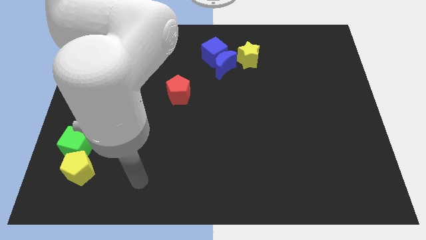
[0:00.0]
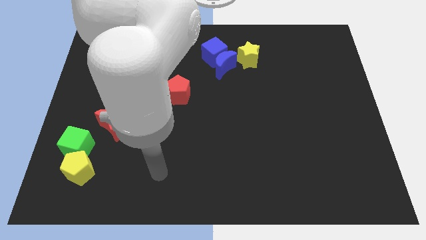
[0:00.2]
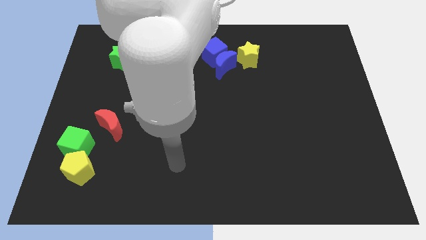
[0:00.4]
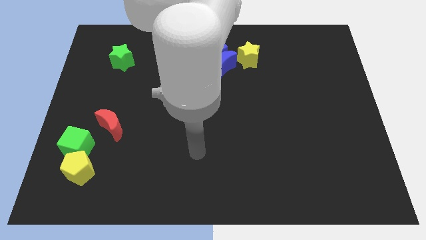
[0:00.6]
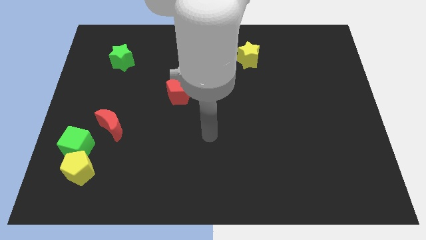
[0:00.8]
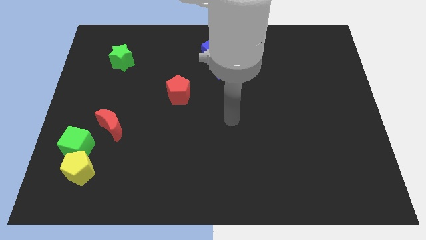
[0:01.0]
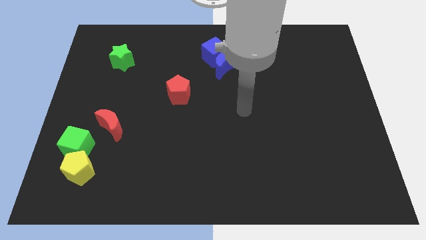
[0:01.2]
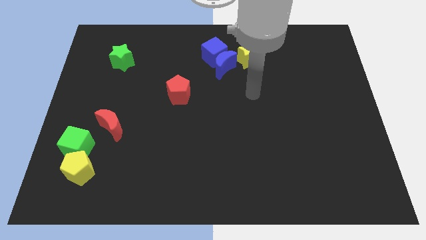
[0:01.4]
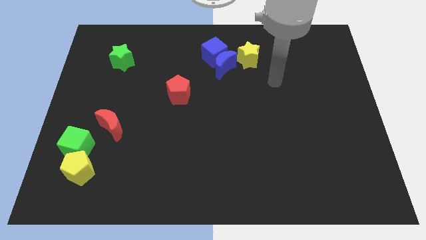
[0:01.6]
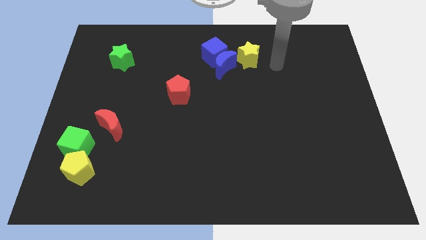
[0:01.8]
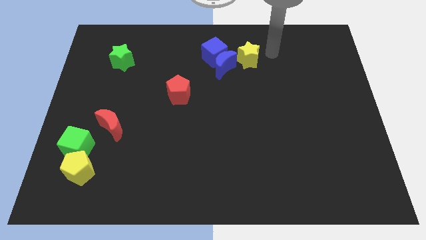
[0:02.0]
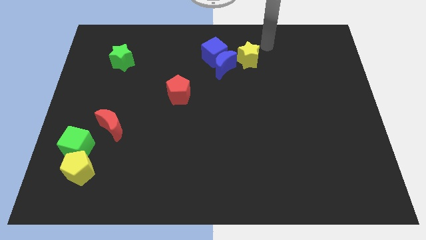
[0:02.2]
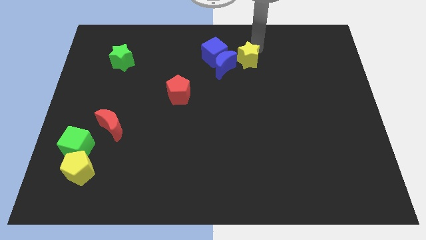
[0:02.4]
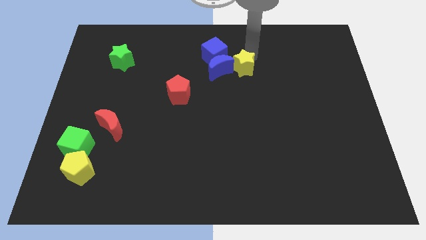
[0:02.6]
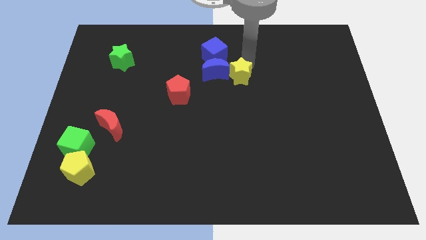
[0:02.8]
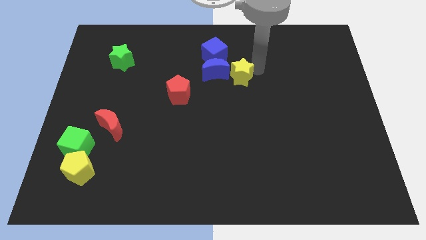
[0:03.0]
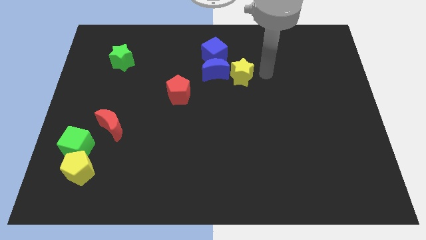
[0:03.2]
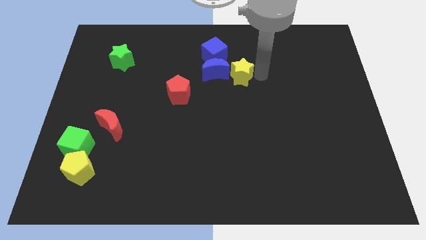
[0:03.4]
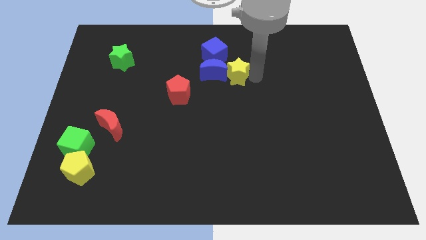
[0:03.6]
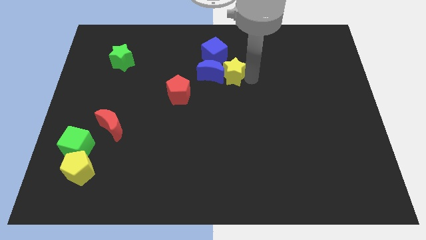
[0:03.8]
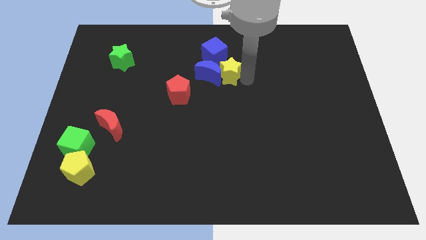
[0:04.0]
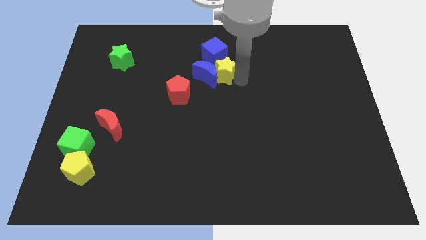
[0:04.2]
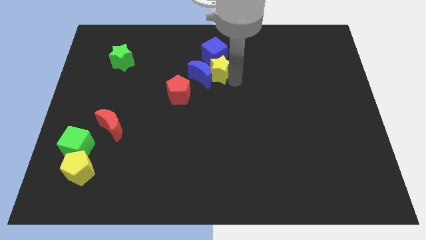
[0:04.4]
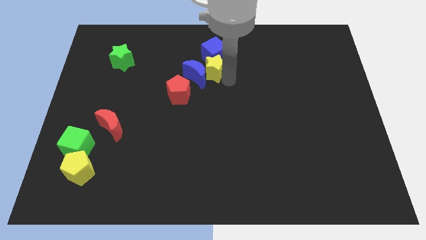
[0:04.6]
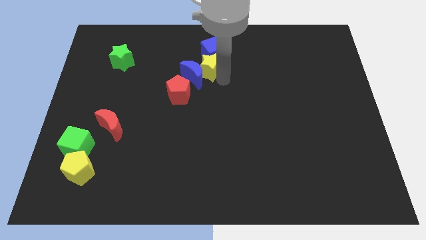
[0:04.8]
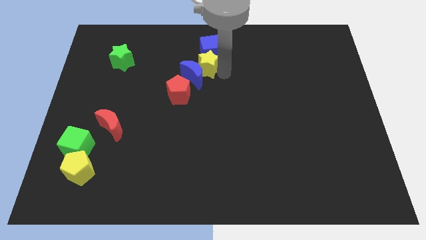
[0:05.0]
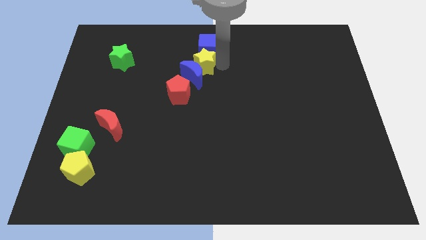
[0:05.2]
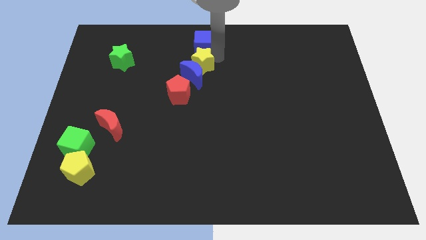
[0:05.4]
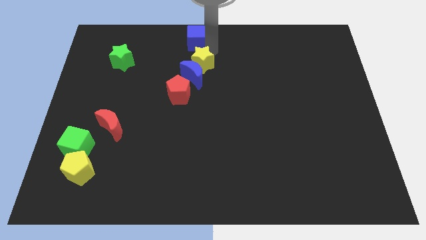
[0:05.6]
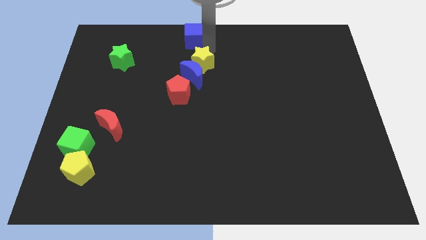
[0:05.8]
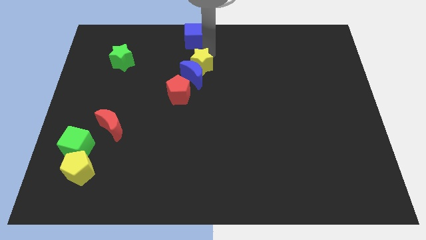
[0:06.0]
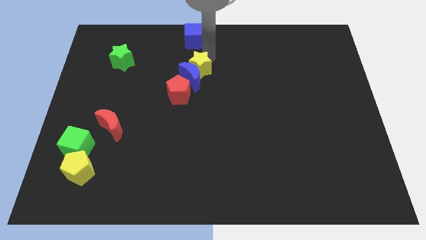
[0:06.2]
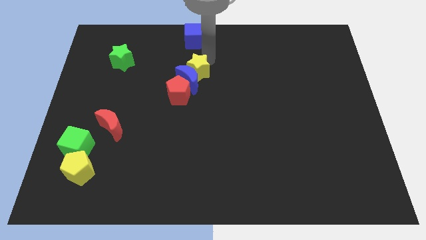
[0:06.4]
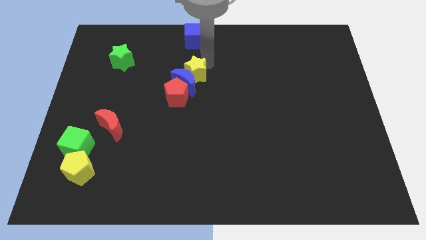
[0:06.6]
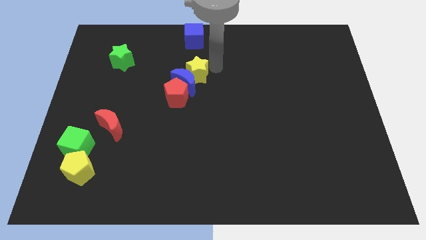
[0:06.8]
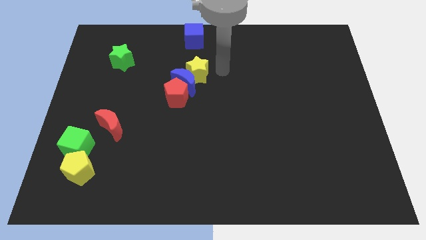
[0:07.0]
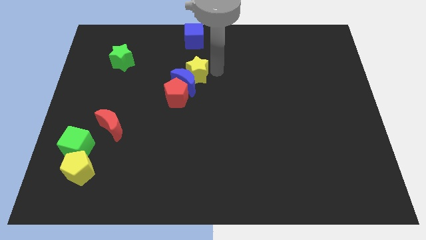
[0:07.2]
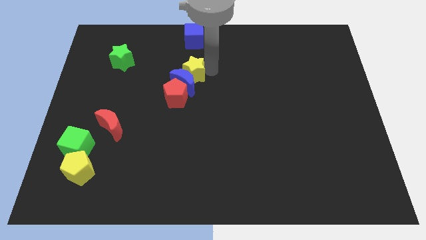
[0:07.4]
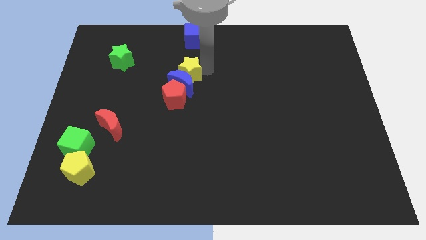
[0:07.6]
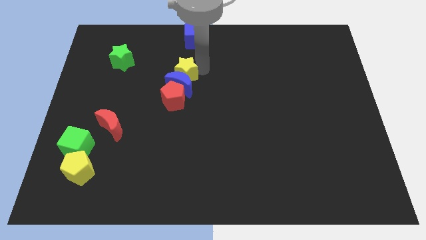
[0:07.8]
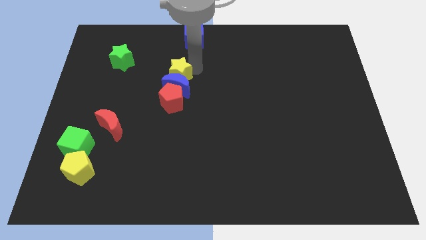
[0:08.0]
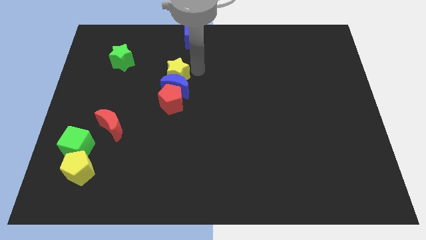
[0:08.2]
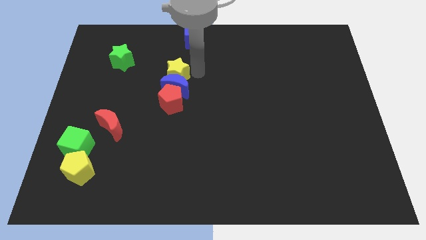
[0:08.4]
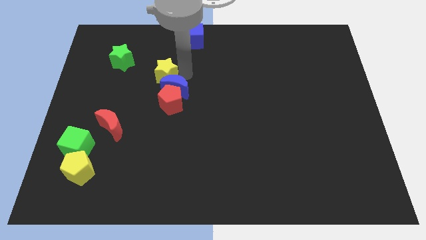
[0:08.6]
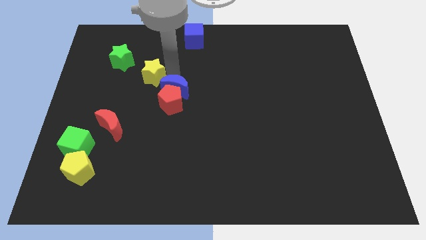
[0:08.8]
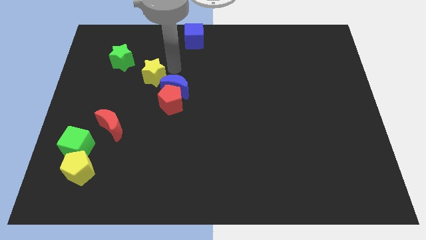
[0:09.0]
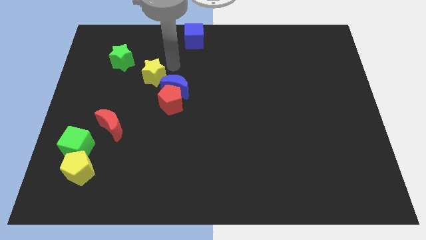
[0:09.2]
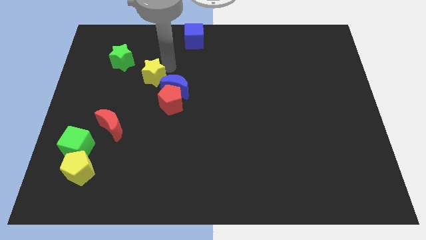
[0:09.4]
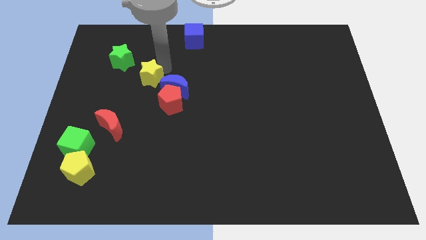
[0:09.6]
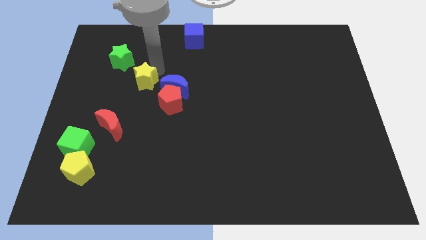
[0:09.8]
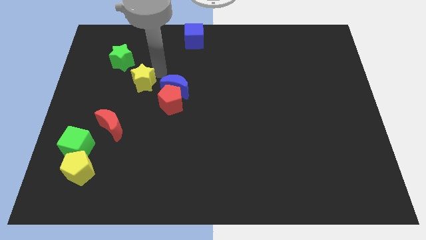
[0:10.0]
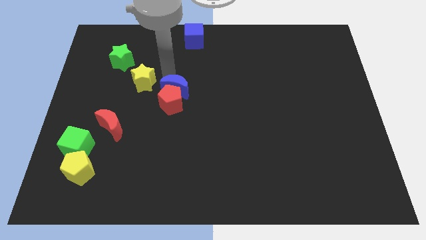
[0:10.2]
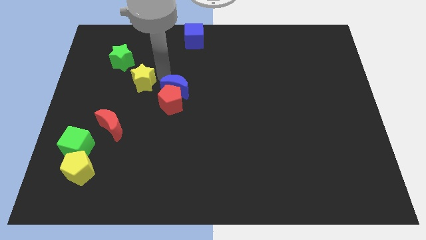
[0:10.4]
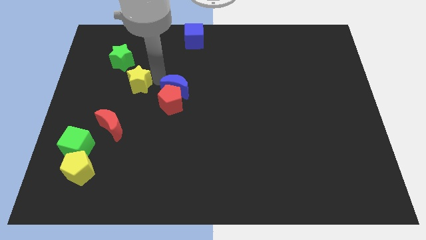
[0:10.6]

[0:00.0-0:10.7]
put the yellow star to the top side of the red moon

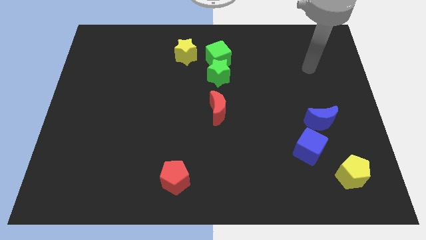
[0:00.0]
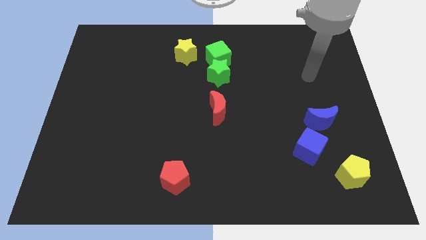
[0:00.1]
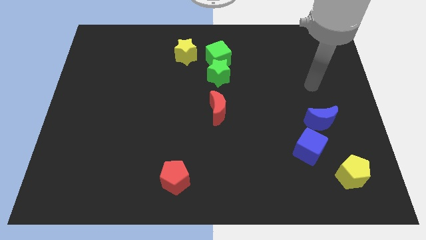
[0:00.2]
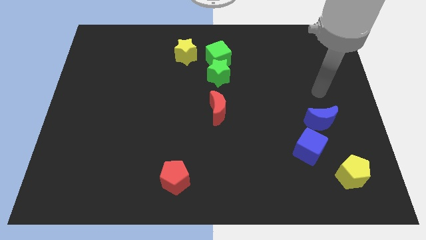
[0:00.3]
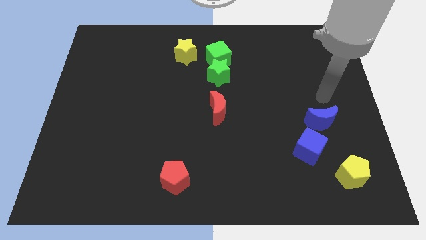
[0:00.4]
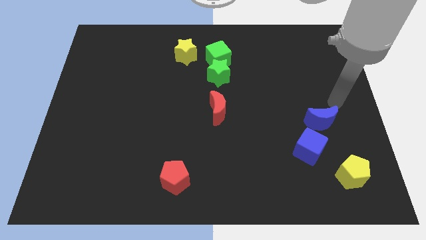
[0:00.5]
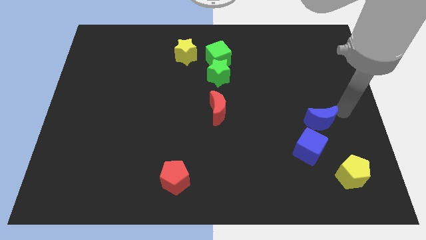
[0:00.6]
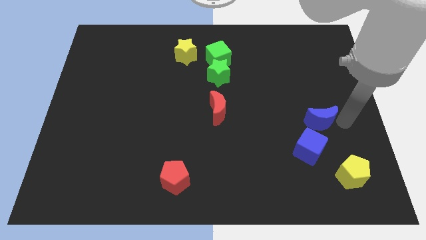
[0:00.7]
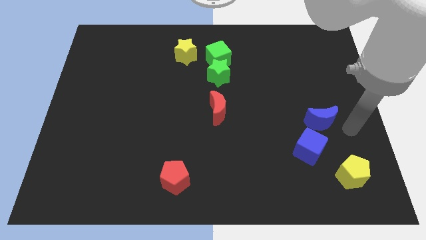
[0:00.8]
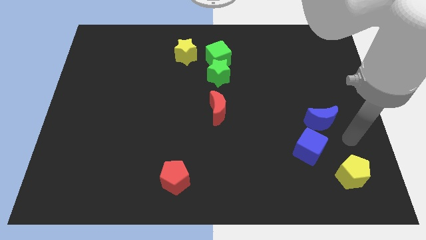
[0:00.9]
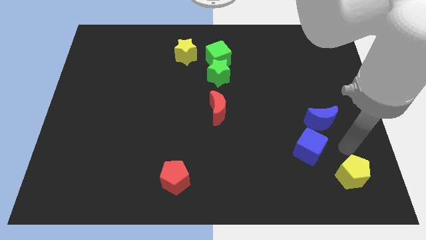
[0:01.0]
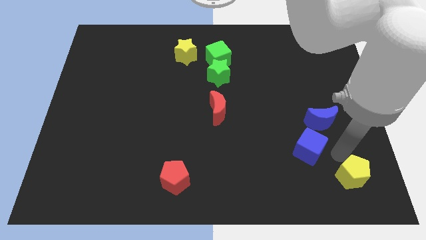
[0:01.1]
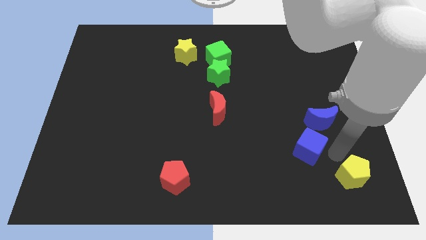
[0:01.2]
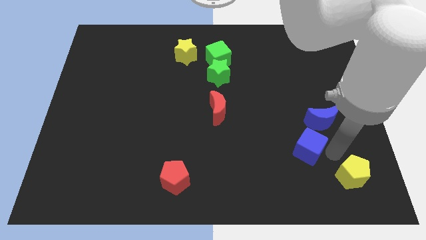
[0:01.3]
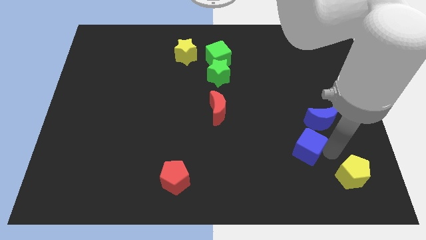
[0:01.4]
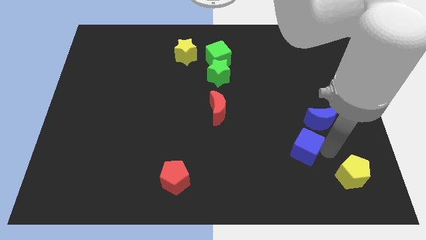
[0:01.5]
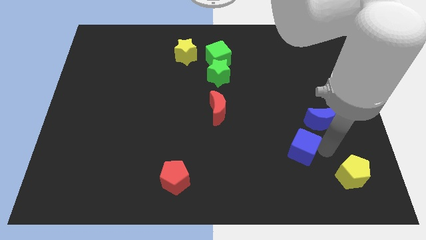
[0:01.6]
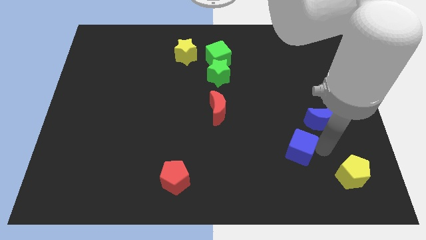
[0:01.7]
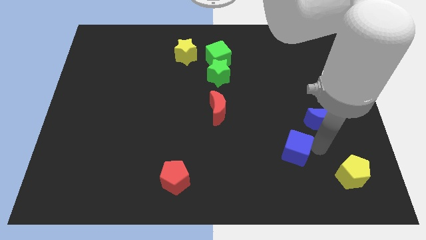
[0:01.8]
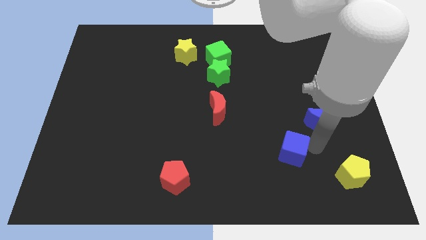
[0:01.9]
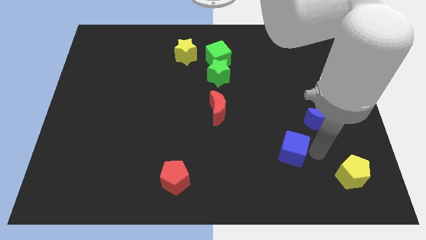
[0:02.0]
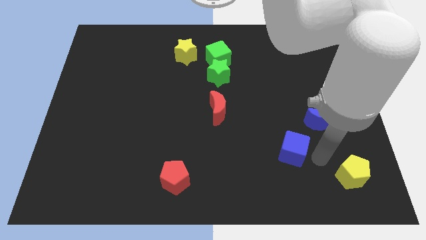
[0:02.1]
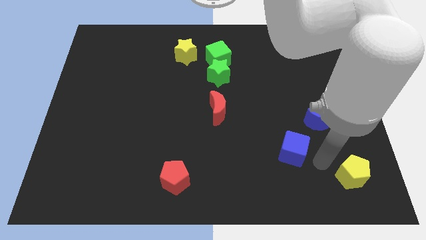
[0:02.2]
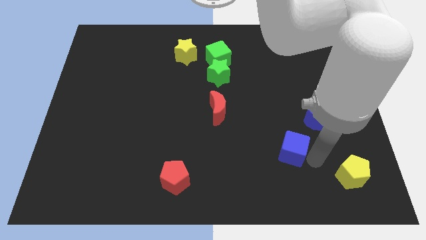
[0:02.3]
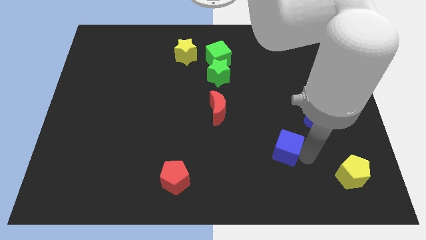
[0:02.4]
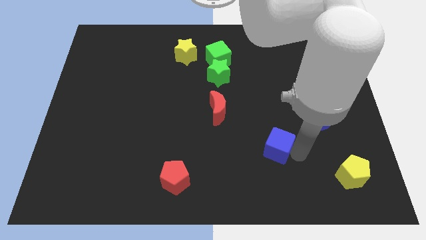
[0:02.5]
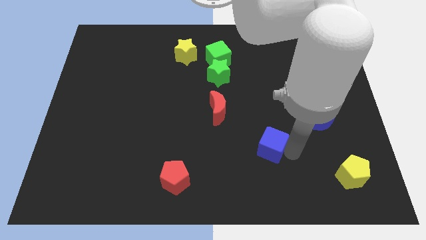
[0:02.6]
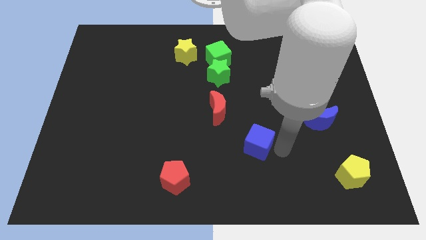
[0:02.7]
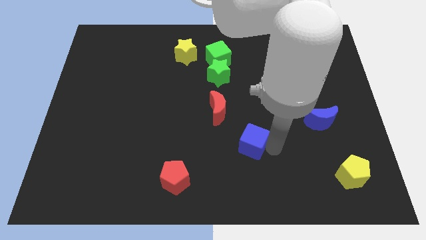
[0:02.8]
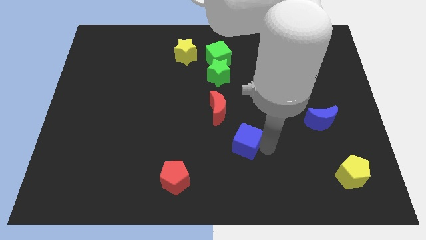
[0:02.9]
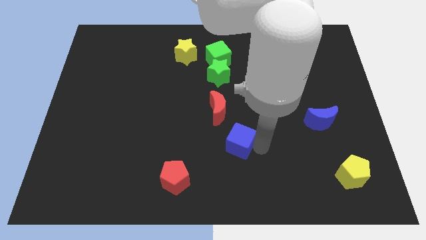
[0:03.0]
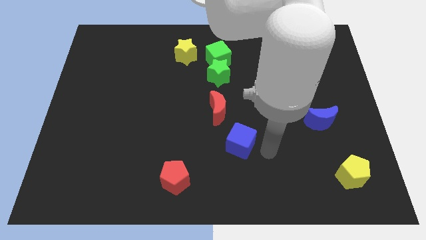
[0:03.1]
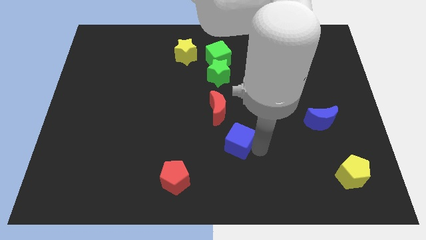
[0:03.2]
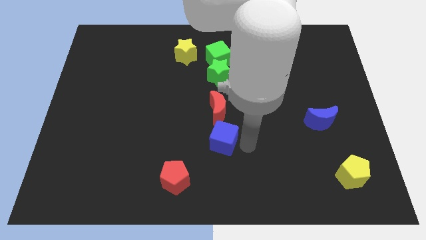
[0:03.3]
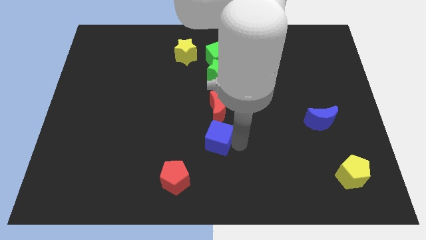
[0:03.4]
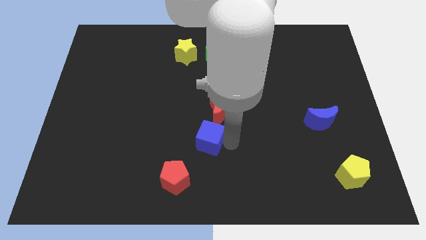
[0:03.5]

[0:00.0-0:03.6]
put the blue cube to the bottom left side of the red moon
